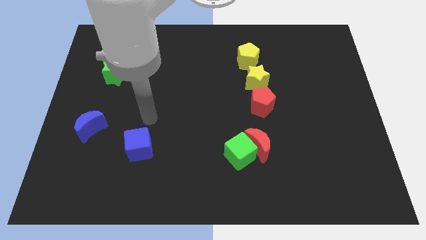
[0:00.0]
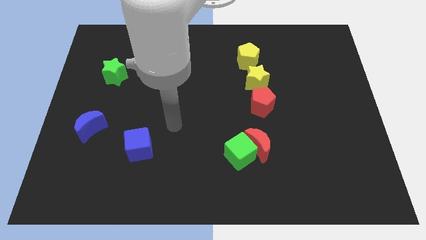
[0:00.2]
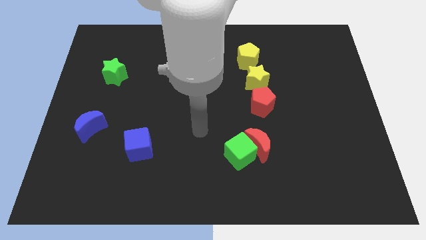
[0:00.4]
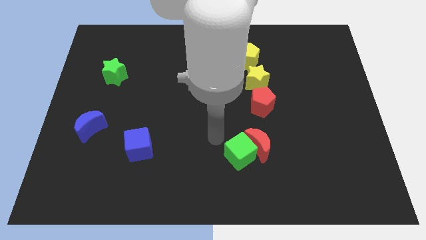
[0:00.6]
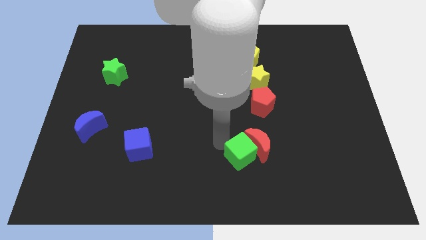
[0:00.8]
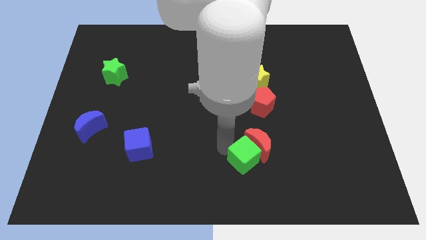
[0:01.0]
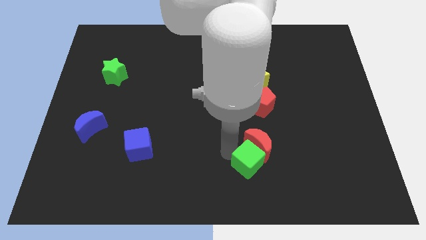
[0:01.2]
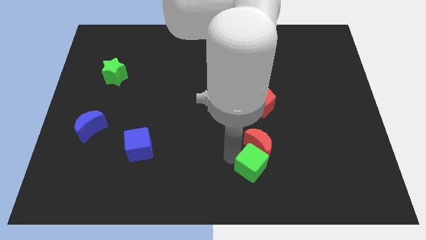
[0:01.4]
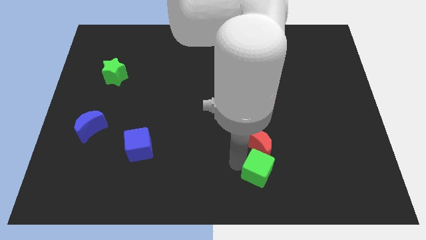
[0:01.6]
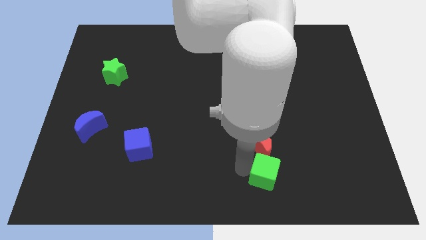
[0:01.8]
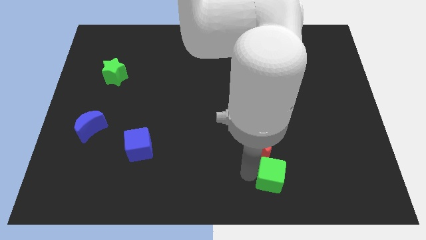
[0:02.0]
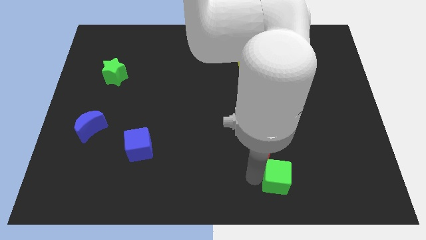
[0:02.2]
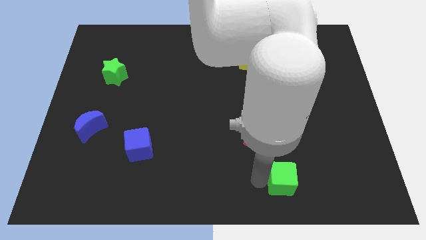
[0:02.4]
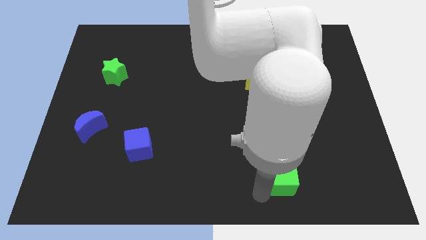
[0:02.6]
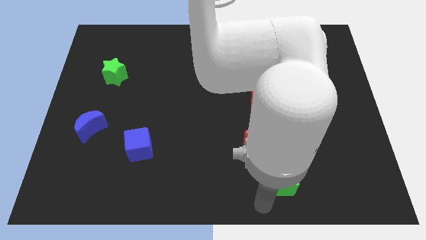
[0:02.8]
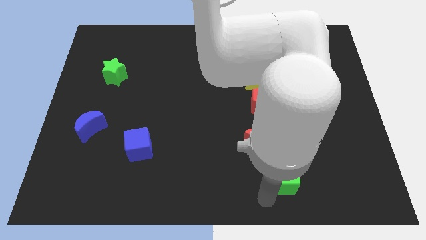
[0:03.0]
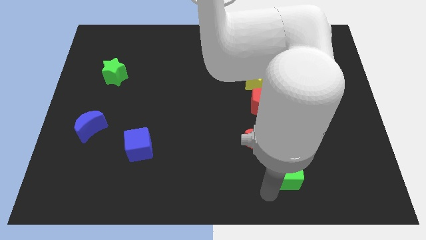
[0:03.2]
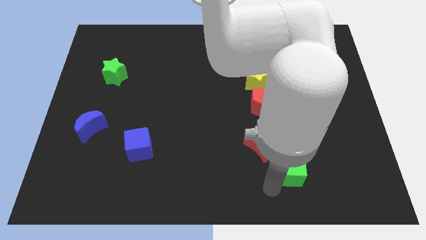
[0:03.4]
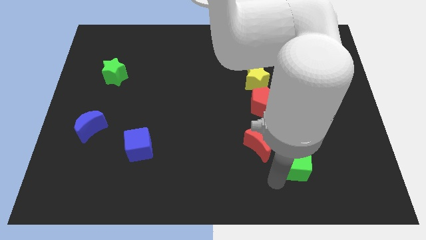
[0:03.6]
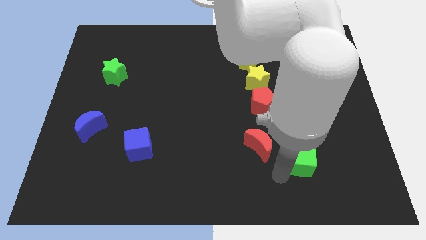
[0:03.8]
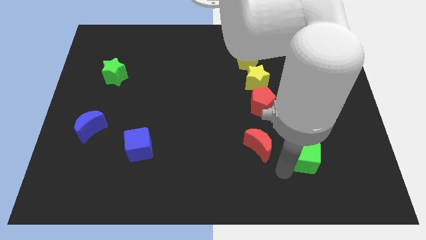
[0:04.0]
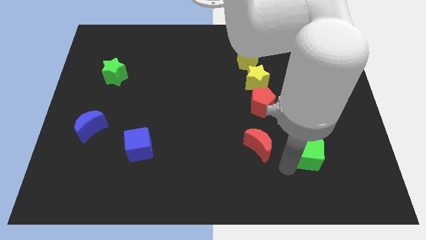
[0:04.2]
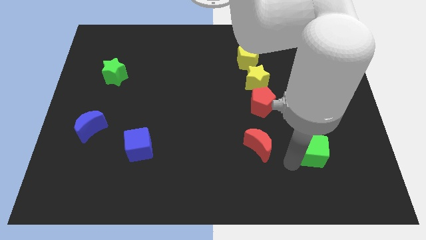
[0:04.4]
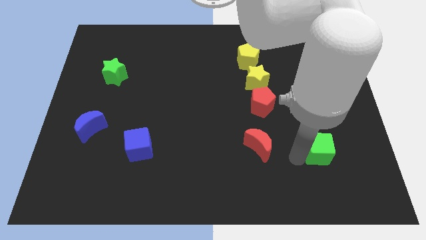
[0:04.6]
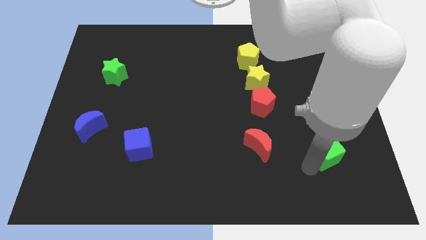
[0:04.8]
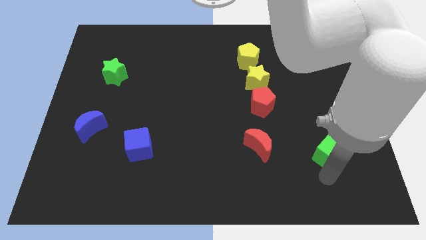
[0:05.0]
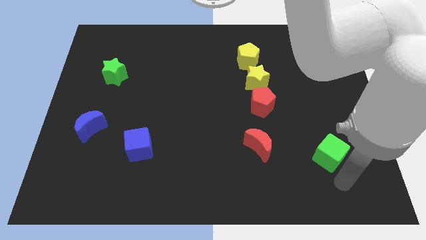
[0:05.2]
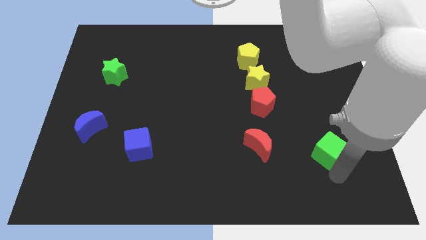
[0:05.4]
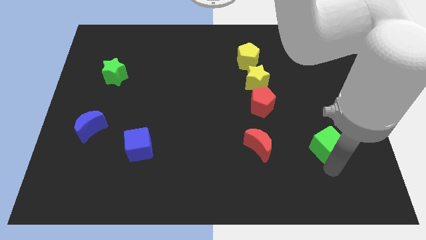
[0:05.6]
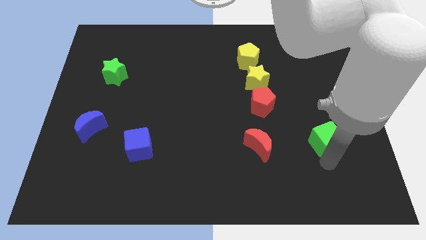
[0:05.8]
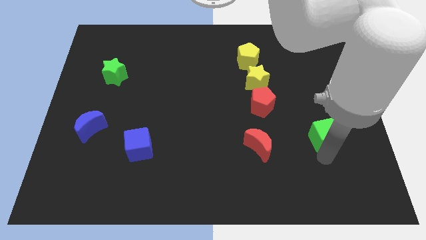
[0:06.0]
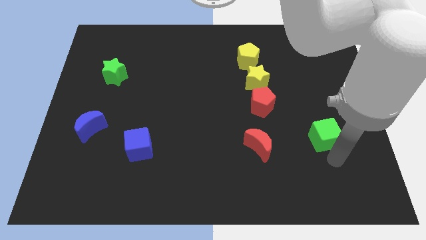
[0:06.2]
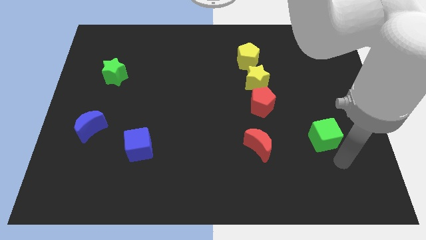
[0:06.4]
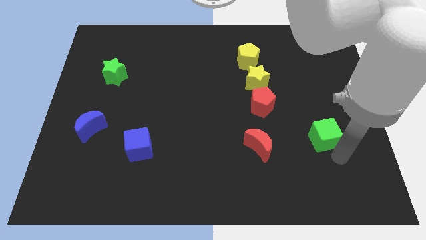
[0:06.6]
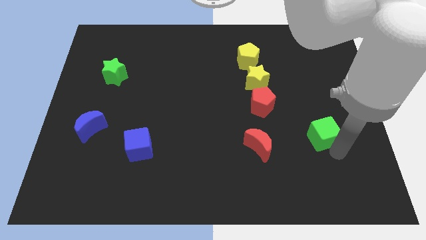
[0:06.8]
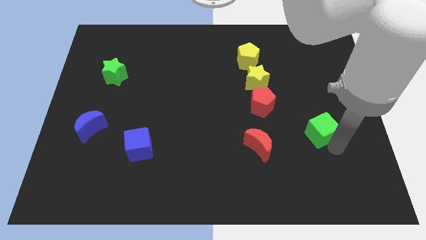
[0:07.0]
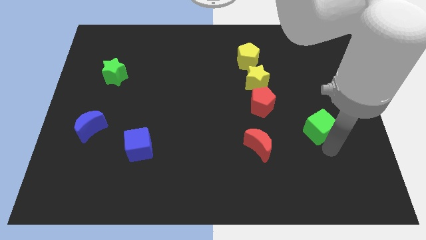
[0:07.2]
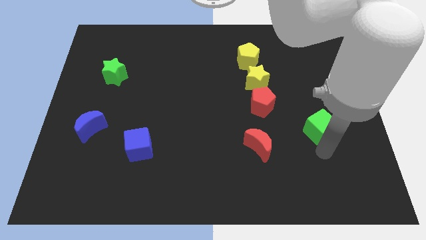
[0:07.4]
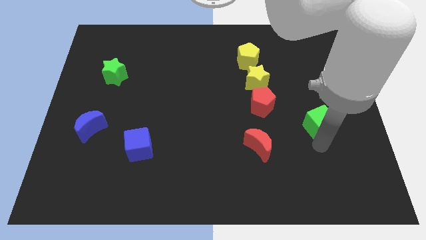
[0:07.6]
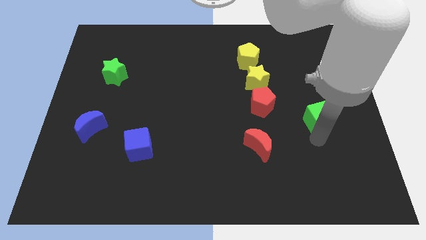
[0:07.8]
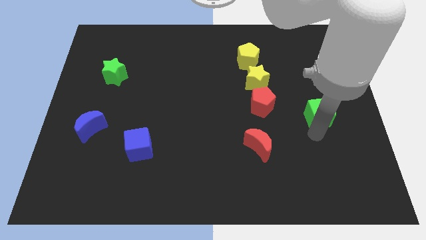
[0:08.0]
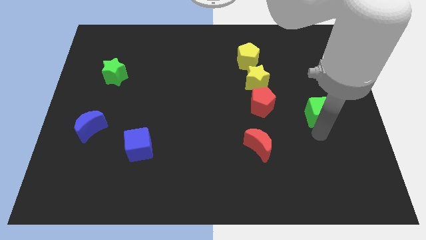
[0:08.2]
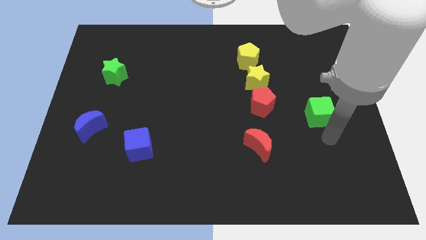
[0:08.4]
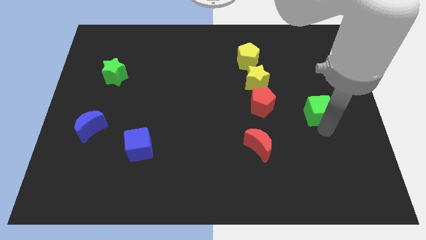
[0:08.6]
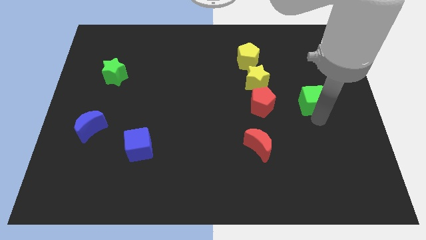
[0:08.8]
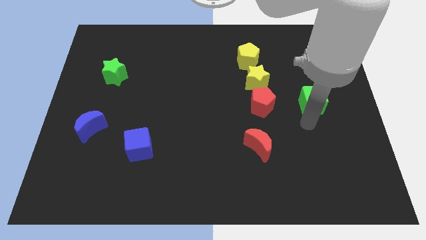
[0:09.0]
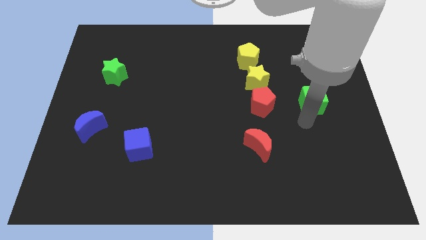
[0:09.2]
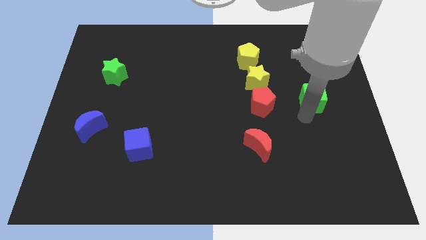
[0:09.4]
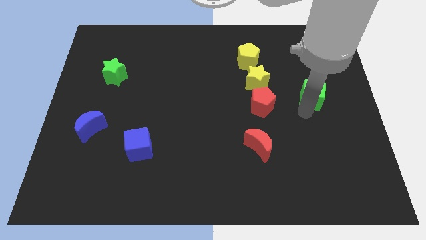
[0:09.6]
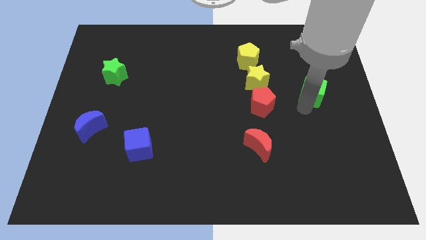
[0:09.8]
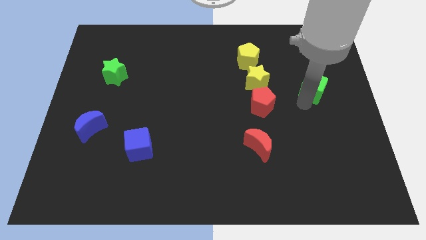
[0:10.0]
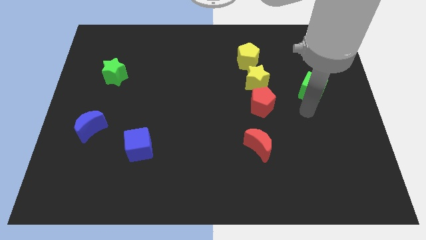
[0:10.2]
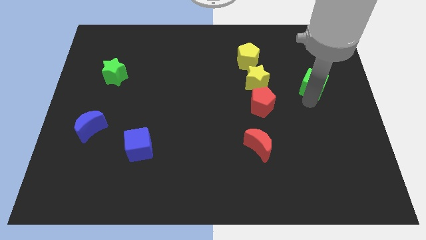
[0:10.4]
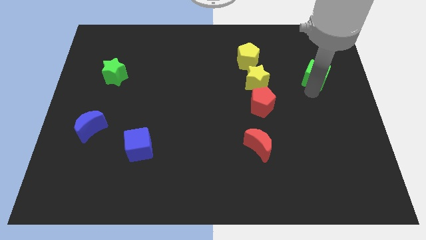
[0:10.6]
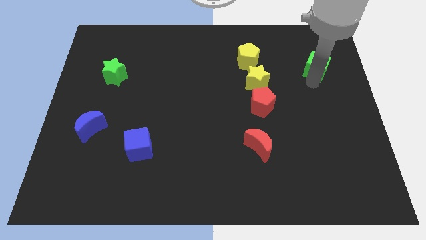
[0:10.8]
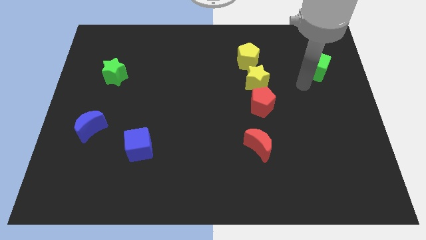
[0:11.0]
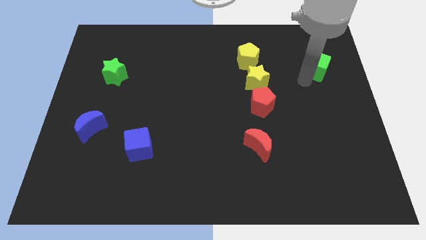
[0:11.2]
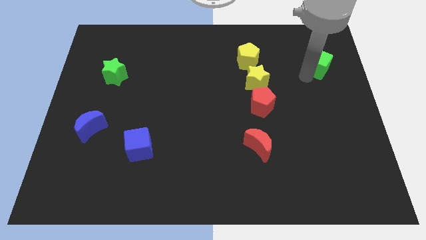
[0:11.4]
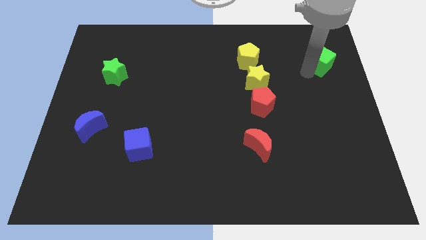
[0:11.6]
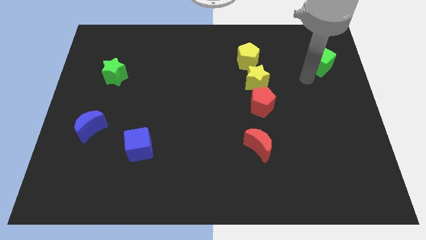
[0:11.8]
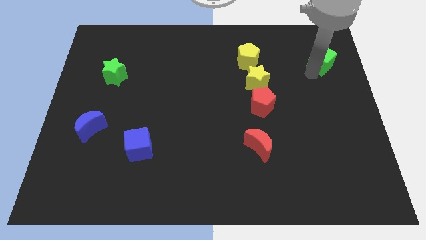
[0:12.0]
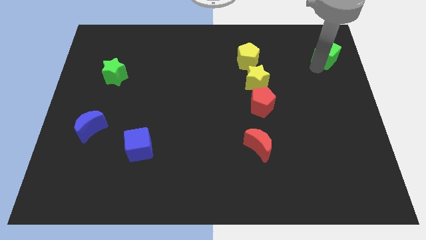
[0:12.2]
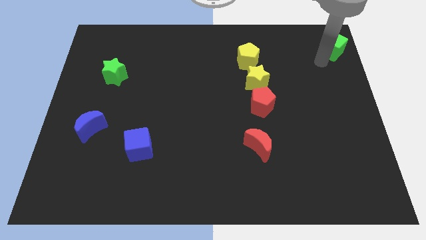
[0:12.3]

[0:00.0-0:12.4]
put the green cube to the top right
